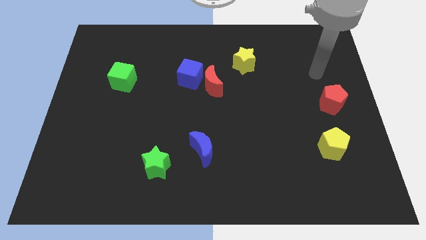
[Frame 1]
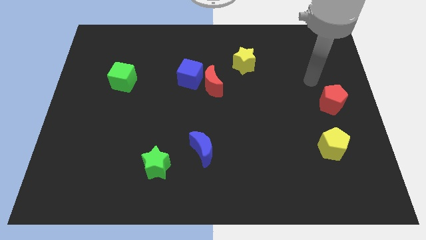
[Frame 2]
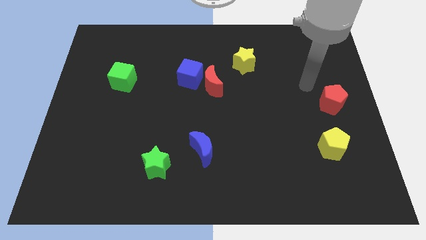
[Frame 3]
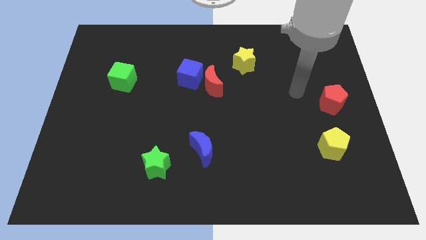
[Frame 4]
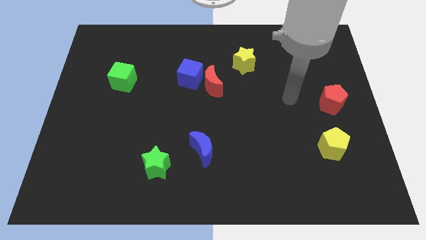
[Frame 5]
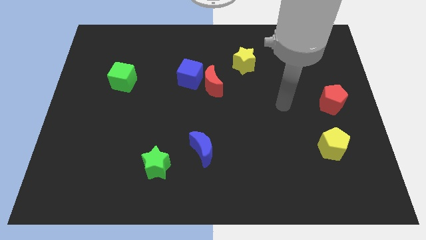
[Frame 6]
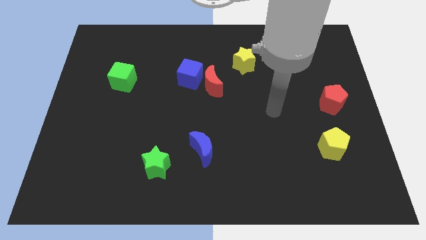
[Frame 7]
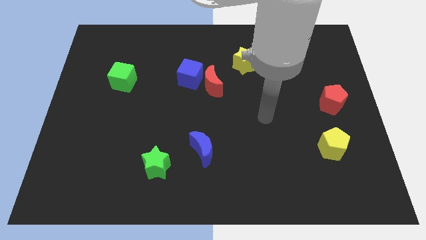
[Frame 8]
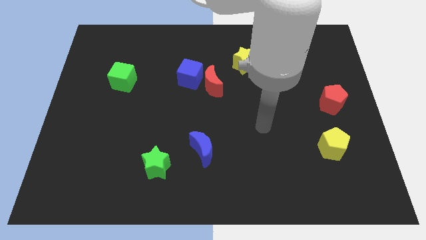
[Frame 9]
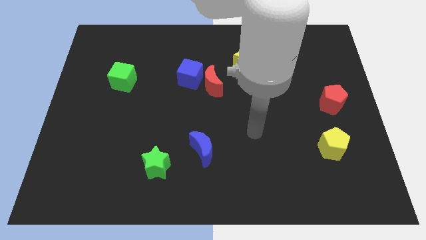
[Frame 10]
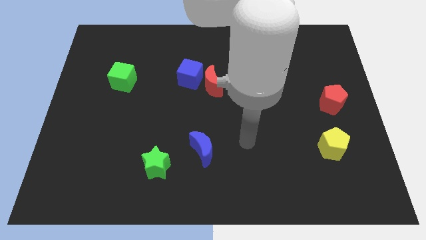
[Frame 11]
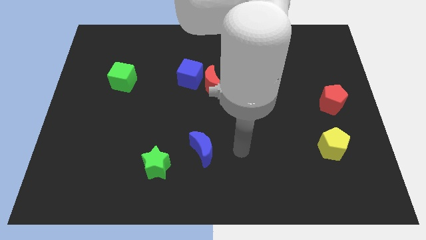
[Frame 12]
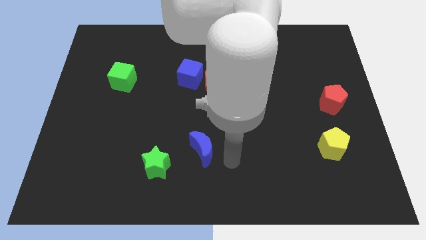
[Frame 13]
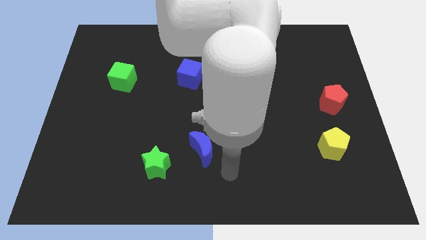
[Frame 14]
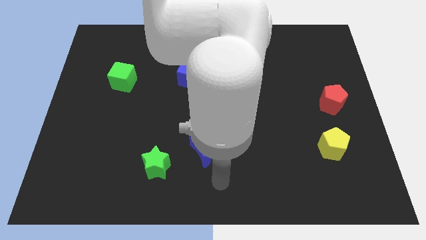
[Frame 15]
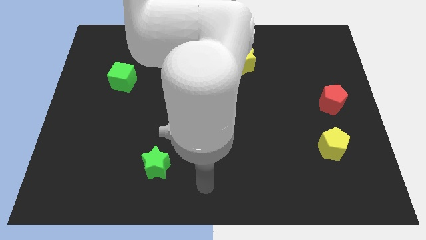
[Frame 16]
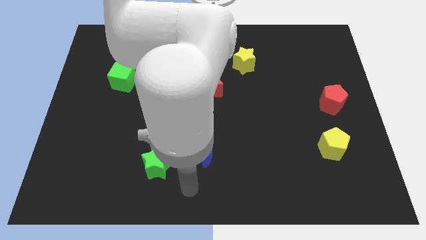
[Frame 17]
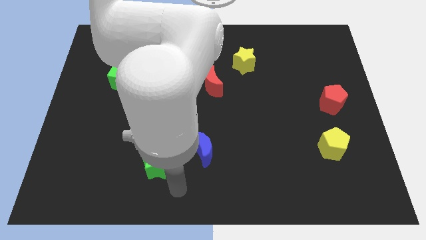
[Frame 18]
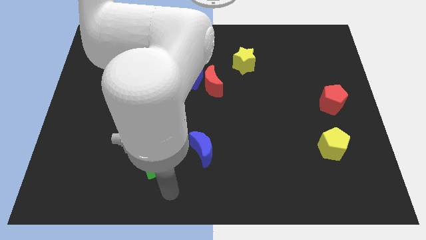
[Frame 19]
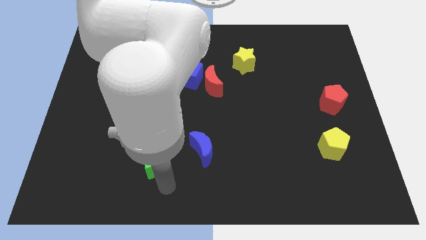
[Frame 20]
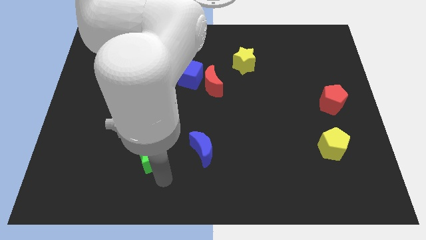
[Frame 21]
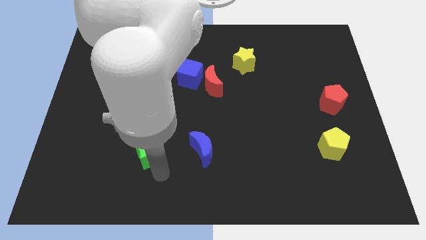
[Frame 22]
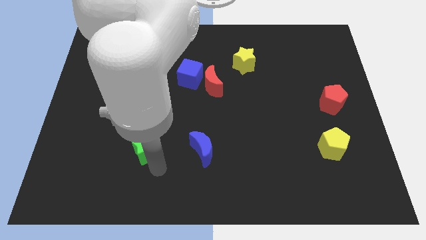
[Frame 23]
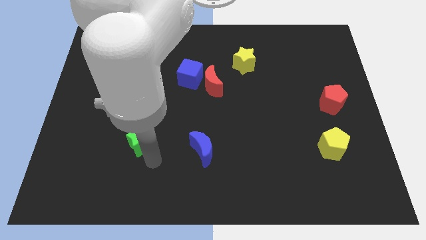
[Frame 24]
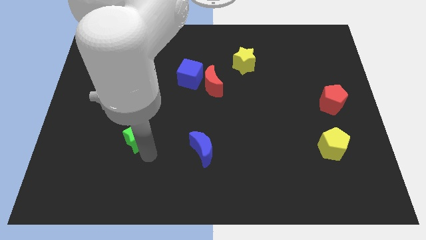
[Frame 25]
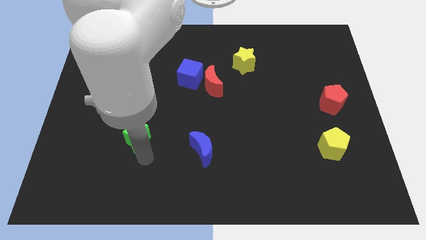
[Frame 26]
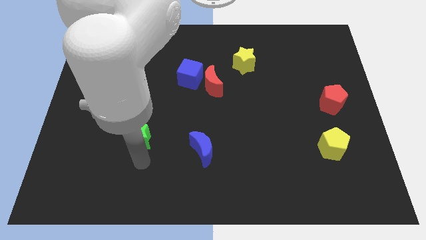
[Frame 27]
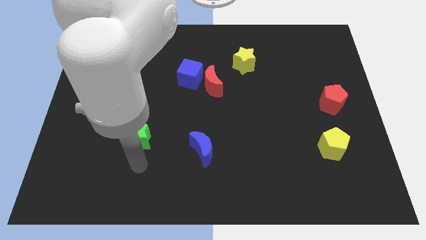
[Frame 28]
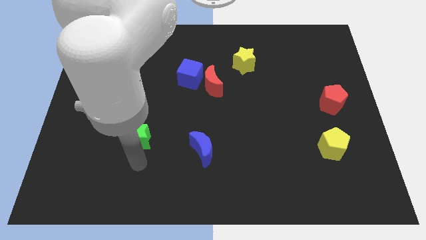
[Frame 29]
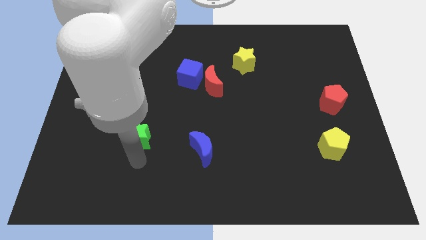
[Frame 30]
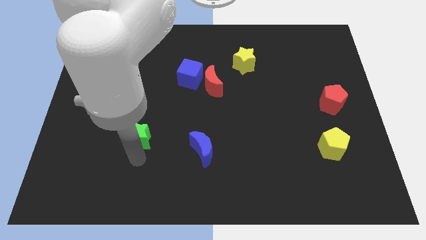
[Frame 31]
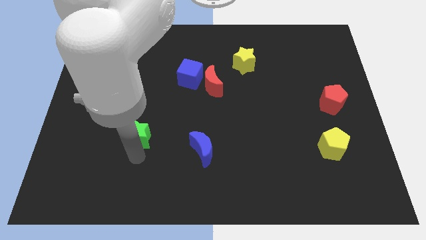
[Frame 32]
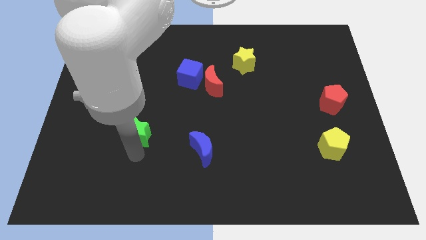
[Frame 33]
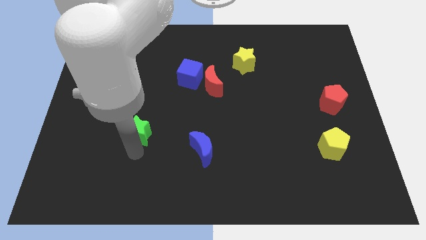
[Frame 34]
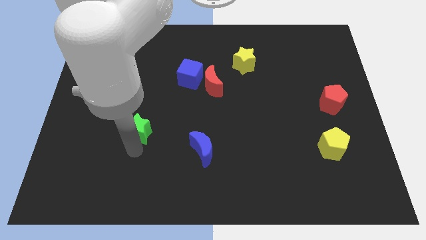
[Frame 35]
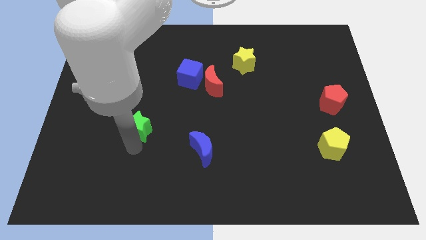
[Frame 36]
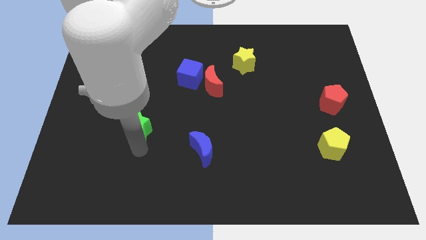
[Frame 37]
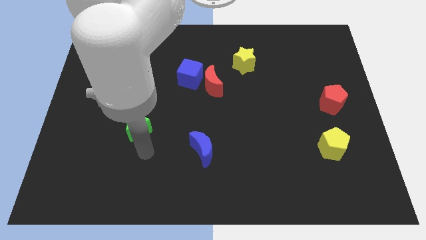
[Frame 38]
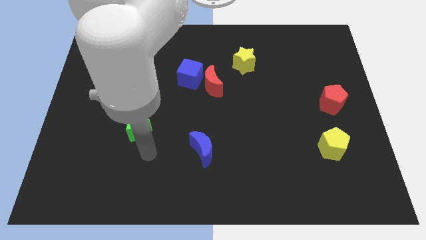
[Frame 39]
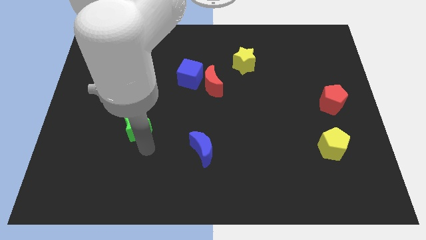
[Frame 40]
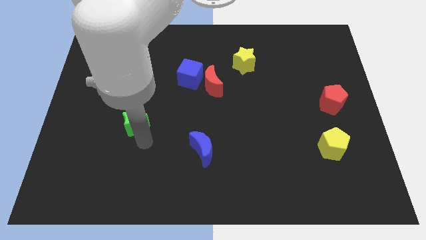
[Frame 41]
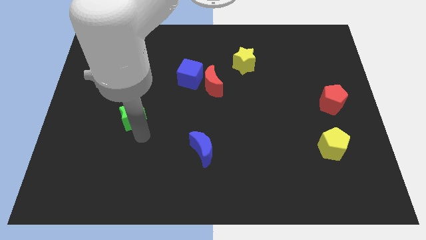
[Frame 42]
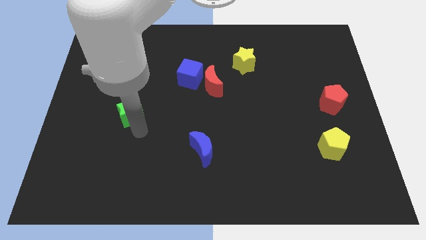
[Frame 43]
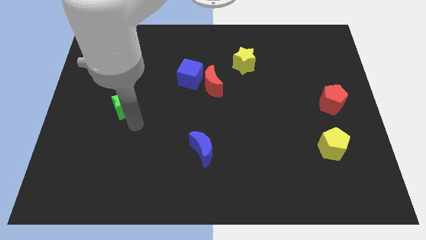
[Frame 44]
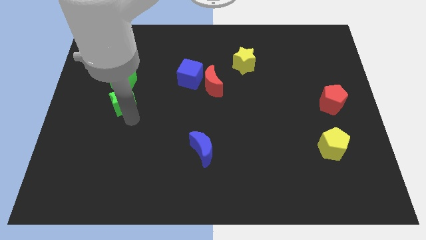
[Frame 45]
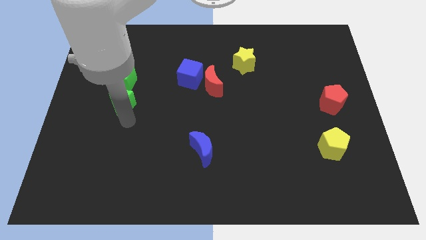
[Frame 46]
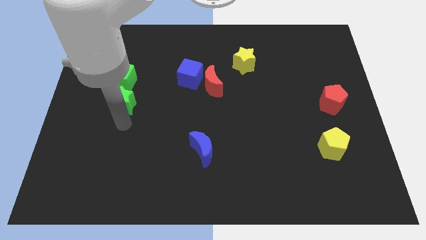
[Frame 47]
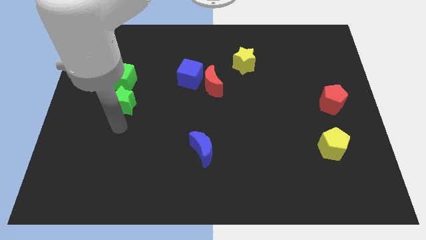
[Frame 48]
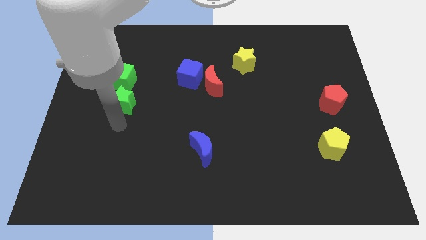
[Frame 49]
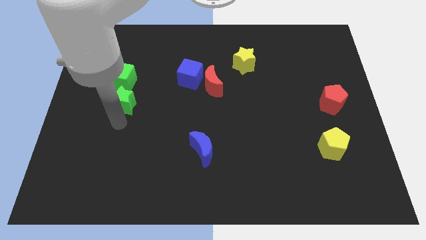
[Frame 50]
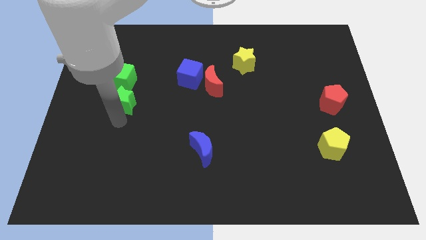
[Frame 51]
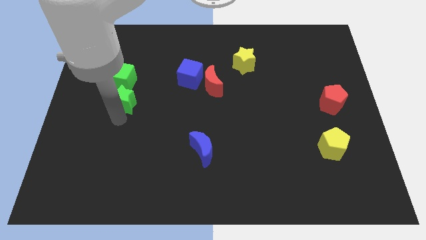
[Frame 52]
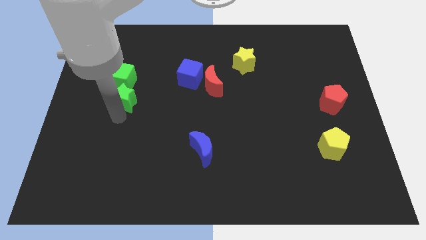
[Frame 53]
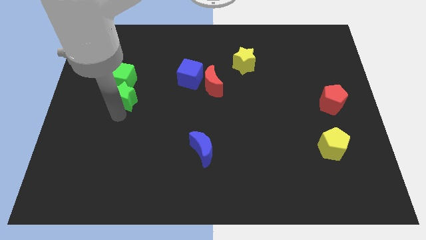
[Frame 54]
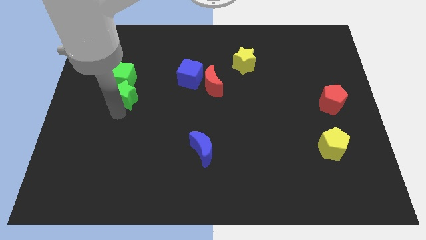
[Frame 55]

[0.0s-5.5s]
slide the green star to the green cube

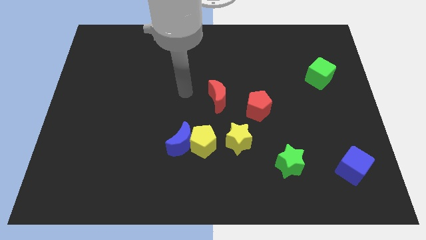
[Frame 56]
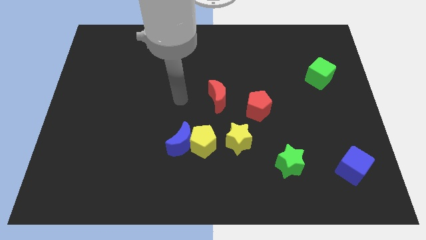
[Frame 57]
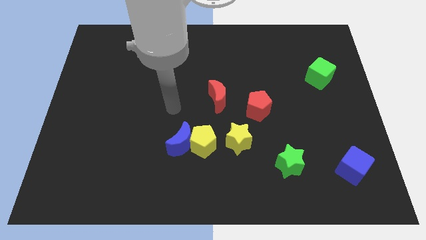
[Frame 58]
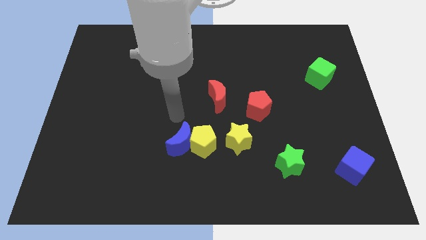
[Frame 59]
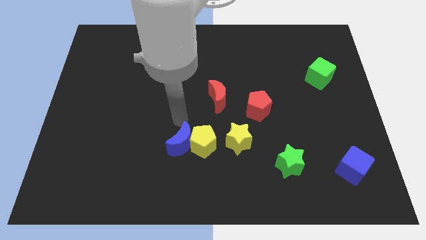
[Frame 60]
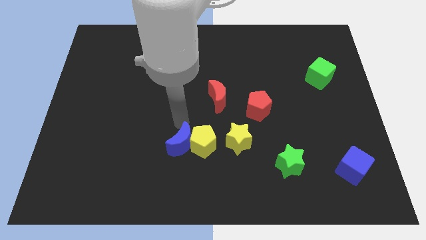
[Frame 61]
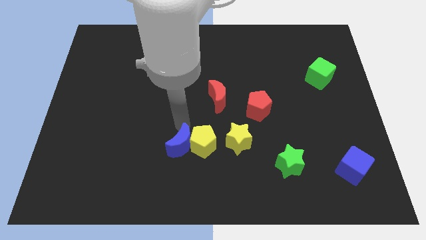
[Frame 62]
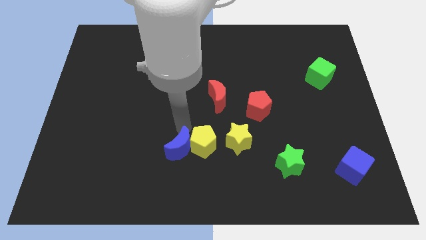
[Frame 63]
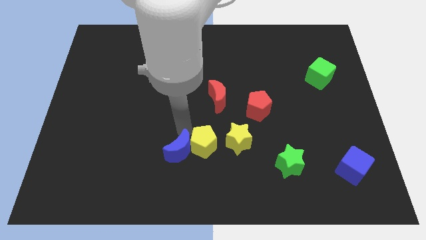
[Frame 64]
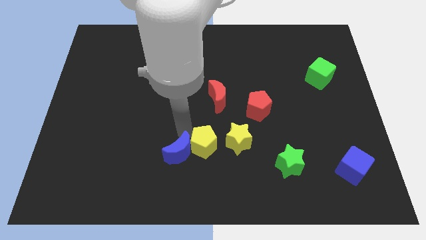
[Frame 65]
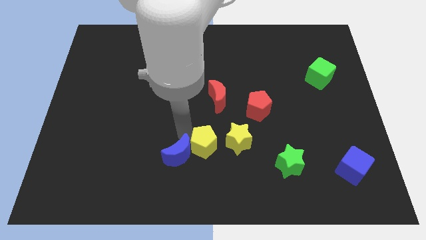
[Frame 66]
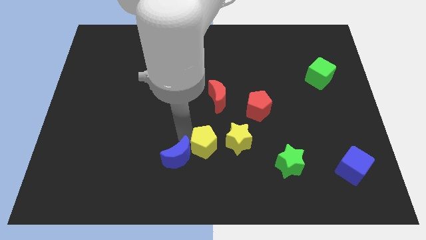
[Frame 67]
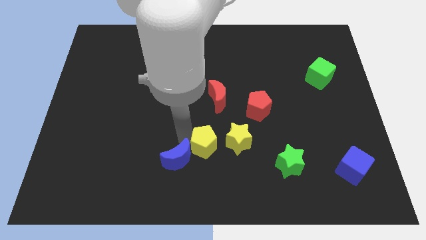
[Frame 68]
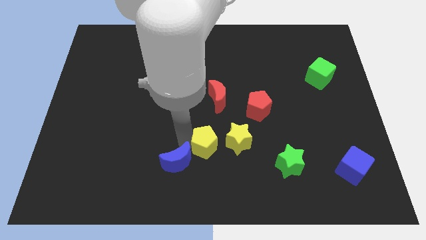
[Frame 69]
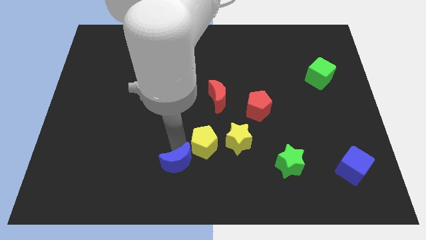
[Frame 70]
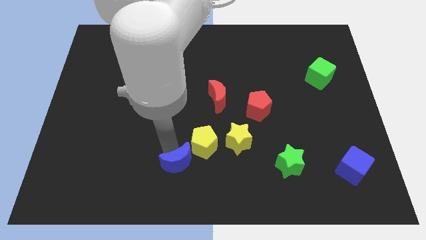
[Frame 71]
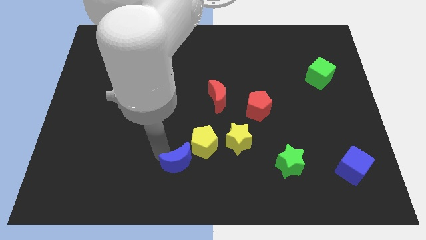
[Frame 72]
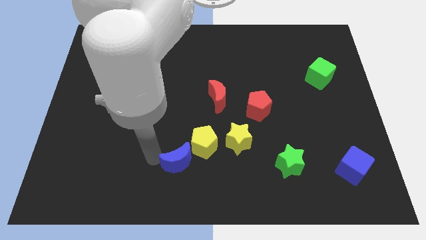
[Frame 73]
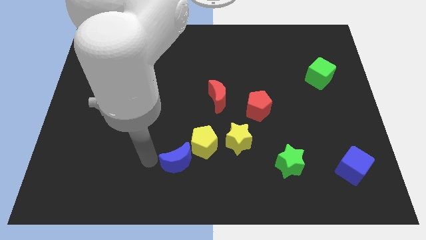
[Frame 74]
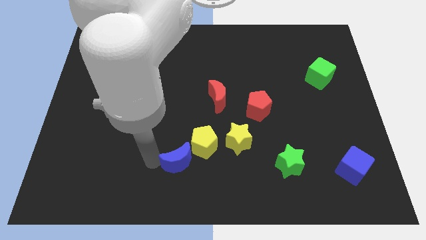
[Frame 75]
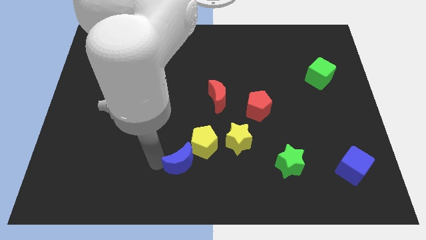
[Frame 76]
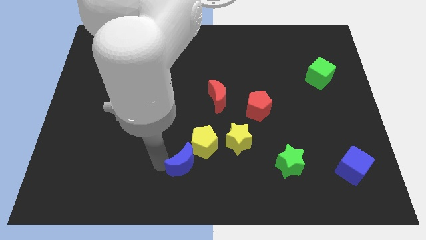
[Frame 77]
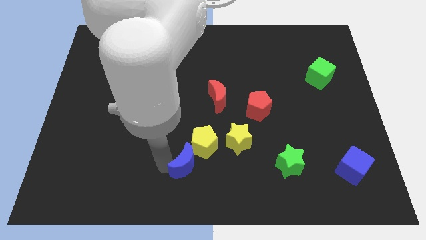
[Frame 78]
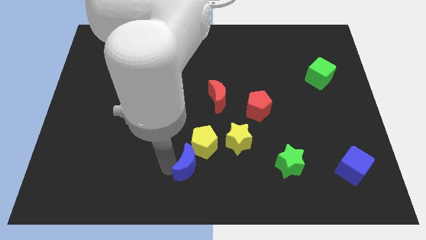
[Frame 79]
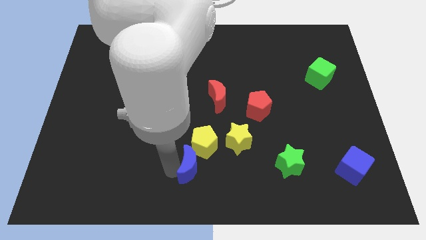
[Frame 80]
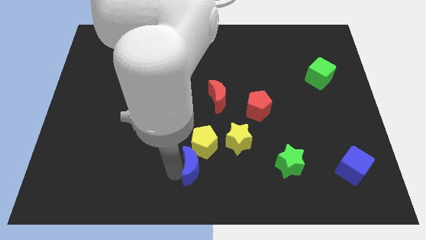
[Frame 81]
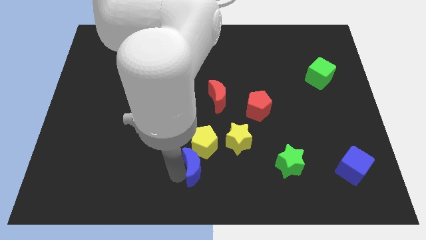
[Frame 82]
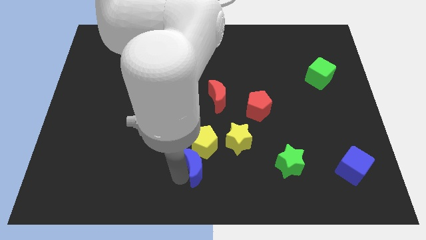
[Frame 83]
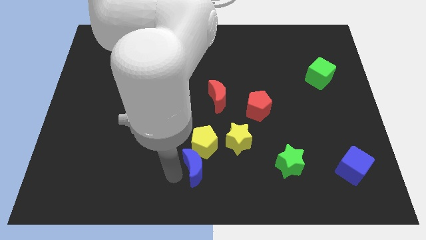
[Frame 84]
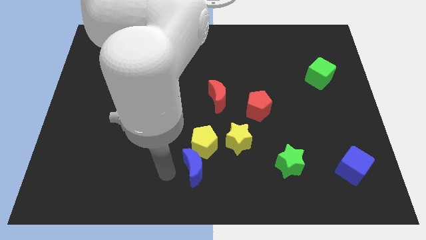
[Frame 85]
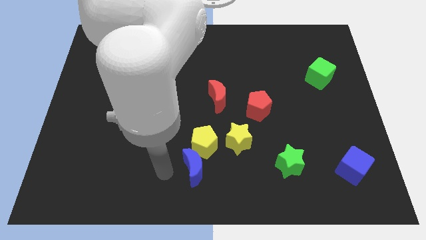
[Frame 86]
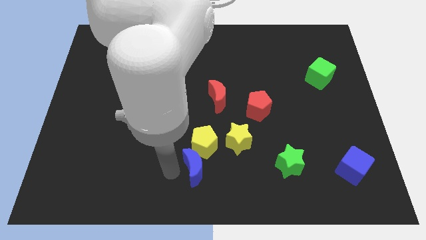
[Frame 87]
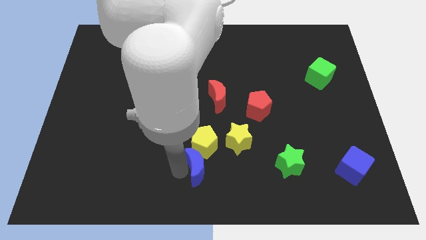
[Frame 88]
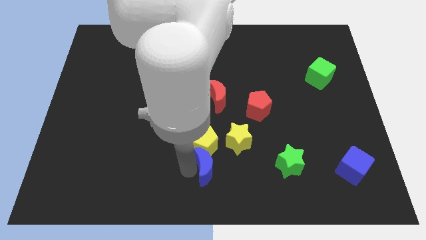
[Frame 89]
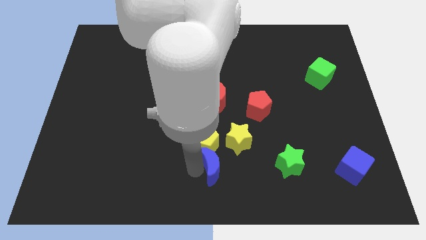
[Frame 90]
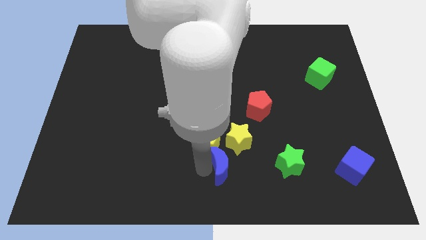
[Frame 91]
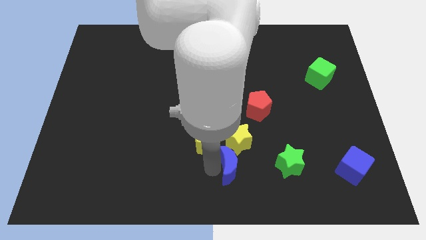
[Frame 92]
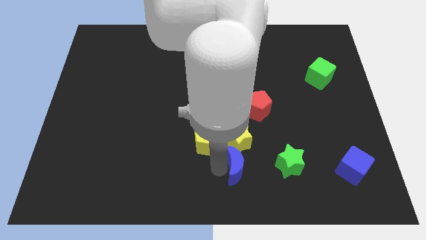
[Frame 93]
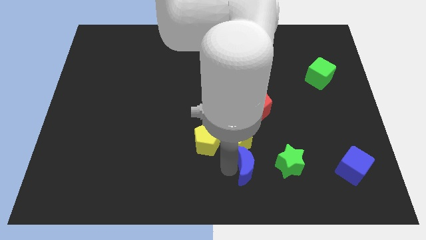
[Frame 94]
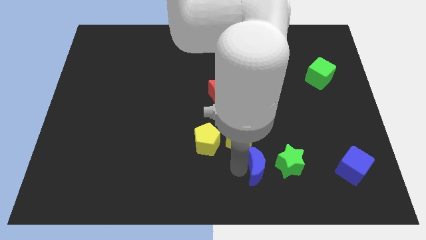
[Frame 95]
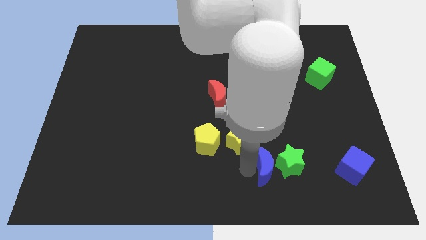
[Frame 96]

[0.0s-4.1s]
slide the blue moon next to the green star
